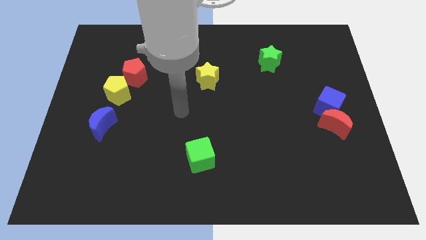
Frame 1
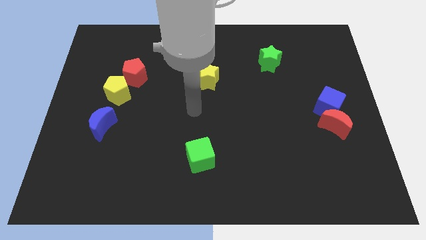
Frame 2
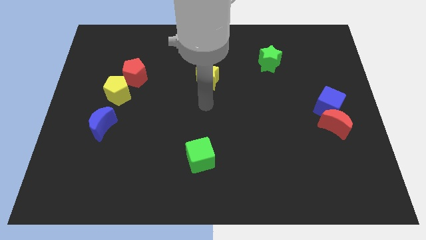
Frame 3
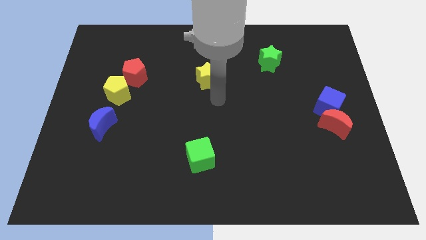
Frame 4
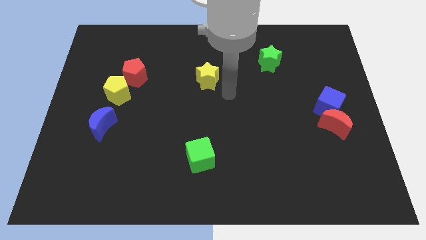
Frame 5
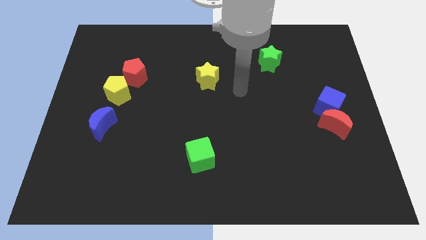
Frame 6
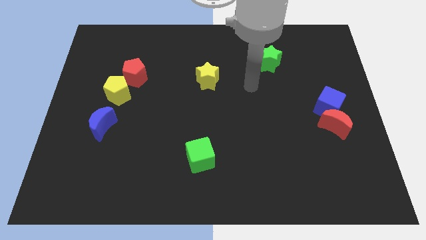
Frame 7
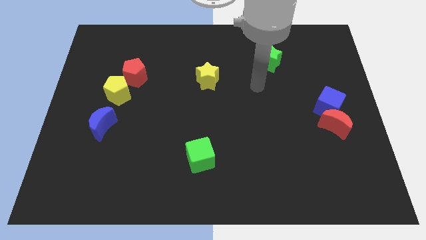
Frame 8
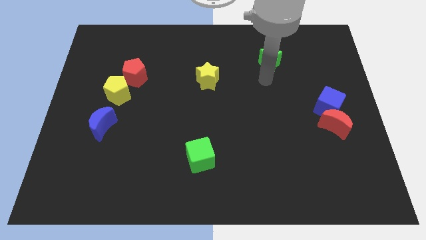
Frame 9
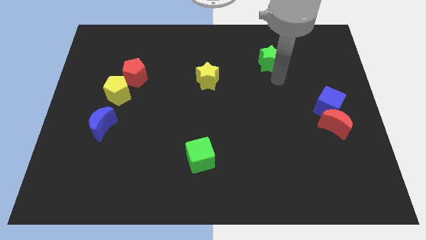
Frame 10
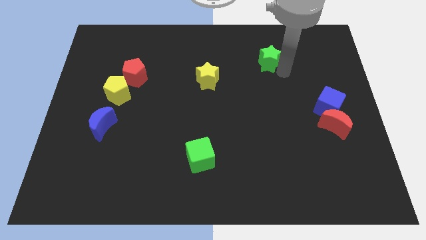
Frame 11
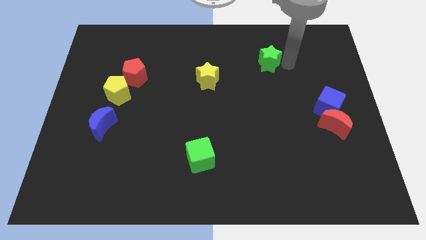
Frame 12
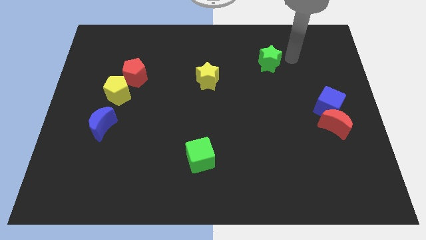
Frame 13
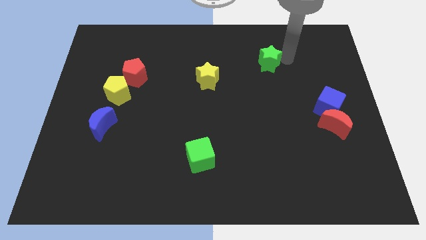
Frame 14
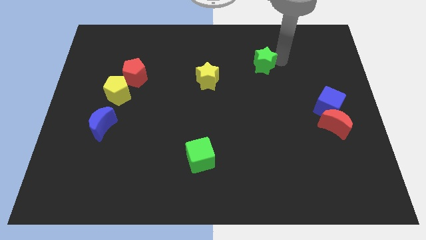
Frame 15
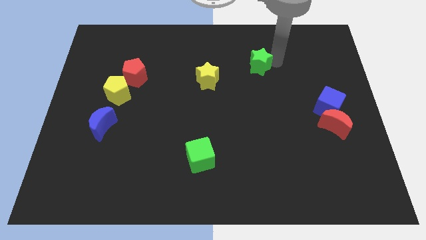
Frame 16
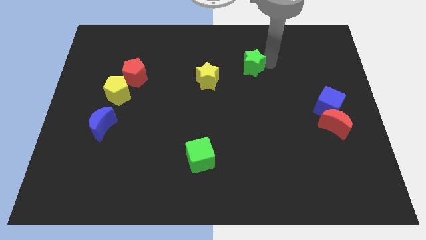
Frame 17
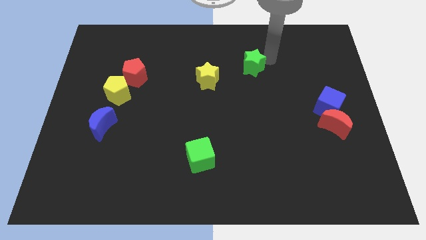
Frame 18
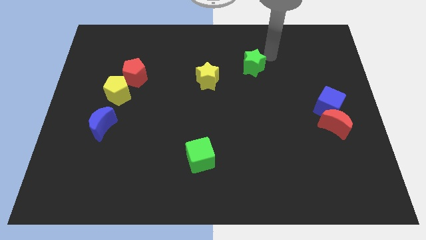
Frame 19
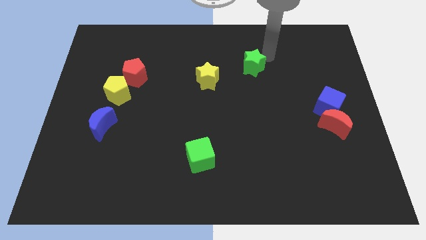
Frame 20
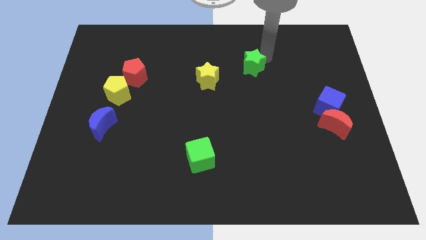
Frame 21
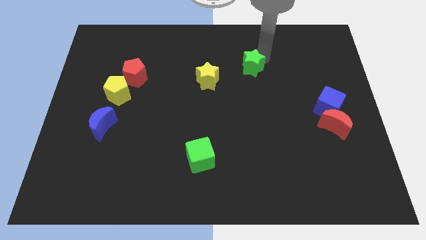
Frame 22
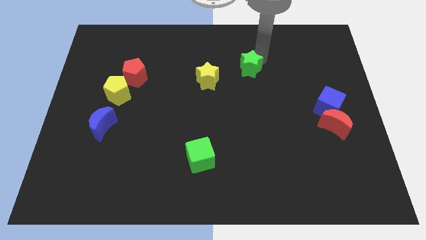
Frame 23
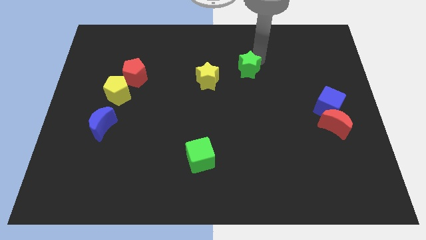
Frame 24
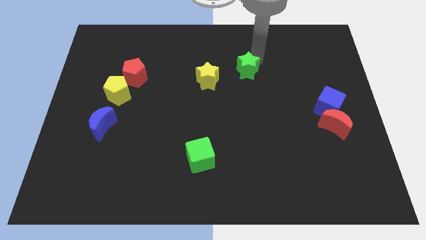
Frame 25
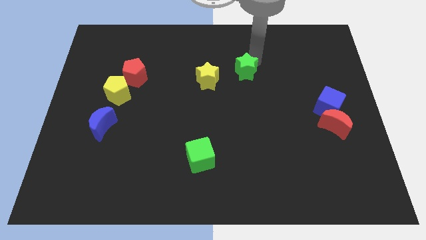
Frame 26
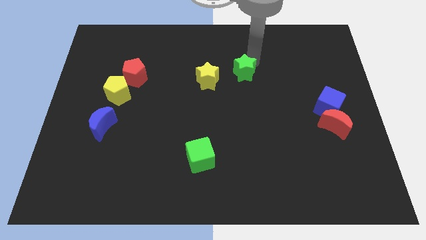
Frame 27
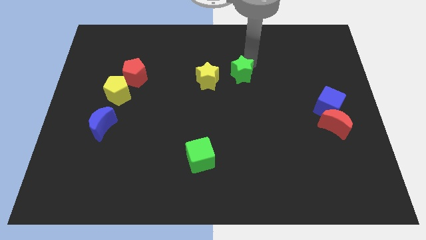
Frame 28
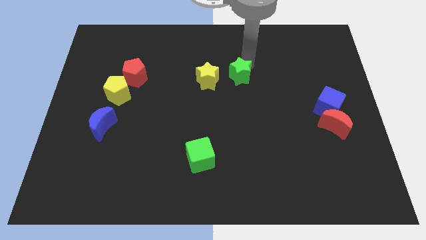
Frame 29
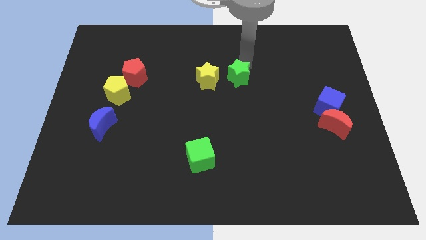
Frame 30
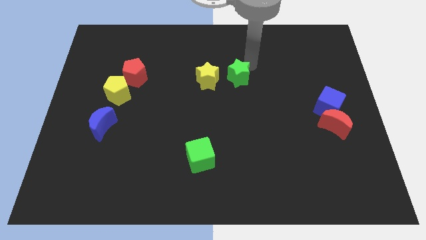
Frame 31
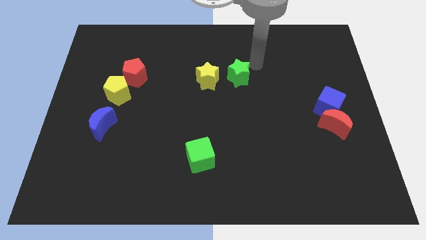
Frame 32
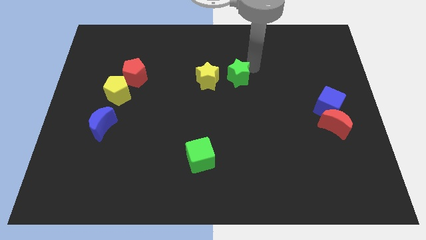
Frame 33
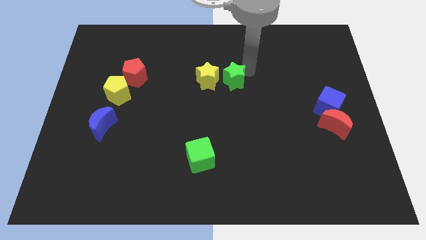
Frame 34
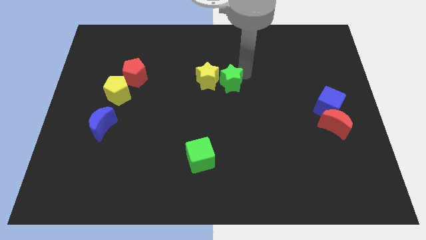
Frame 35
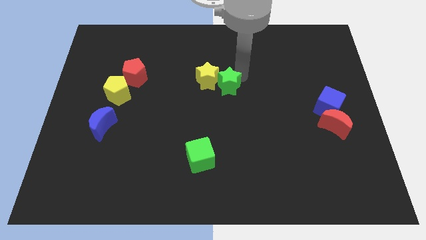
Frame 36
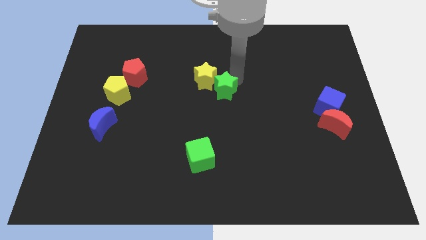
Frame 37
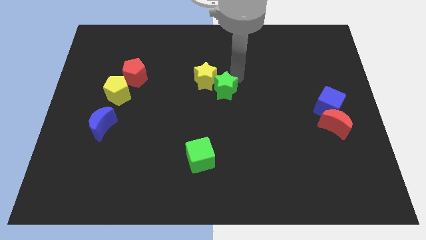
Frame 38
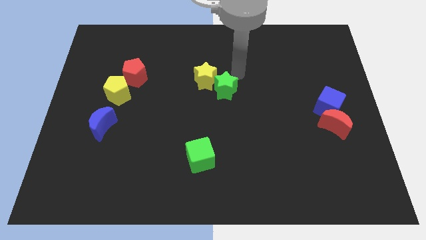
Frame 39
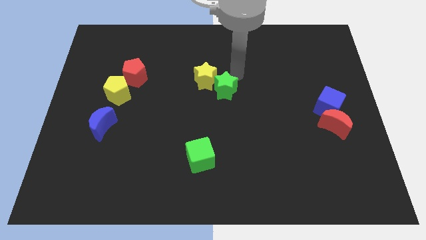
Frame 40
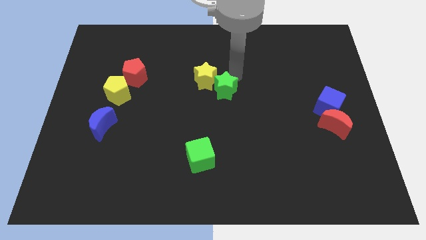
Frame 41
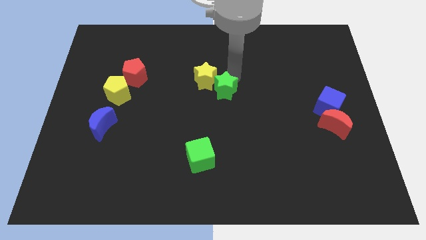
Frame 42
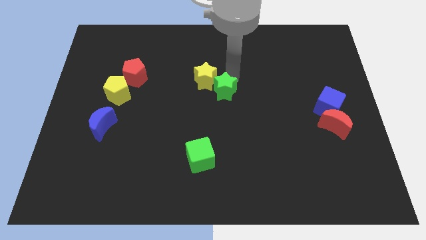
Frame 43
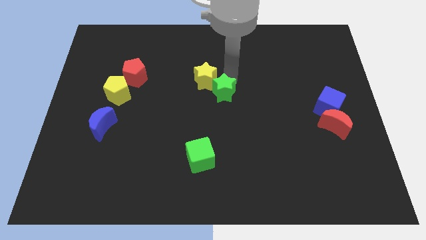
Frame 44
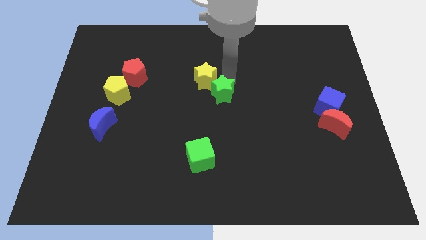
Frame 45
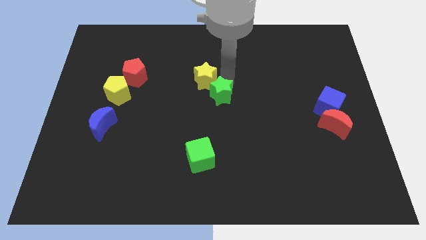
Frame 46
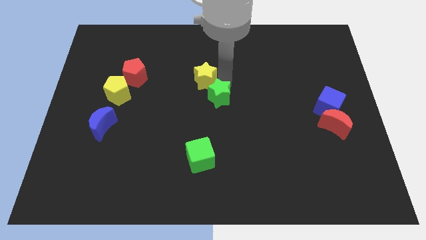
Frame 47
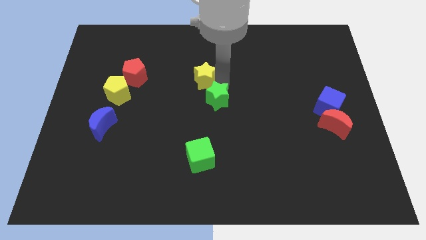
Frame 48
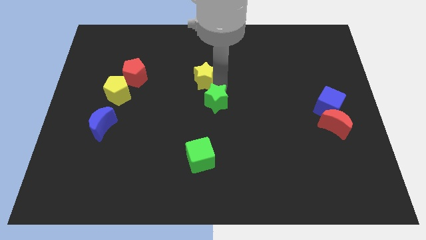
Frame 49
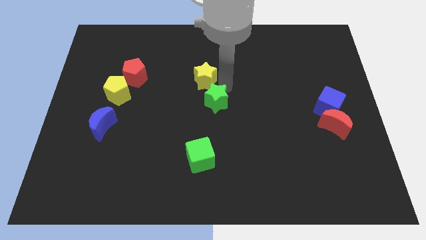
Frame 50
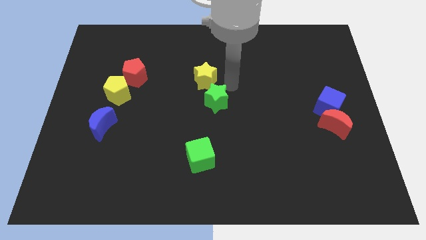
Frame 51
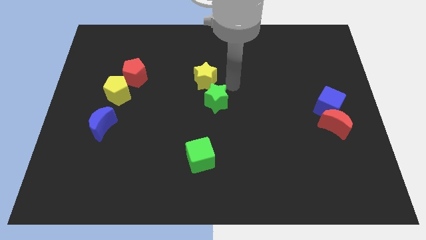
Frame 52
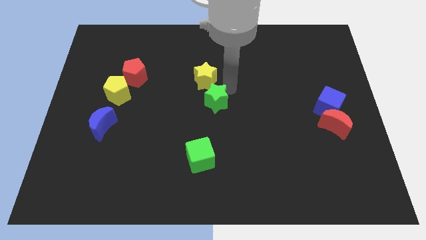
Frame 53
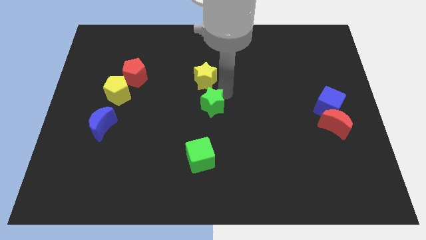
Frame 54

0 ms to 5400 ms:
slide the green star downwards and left

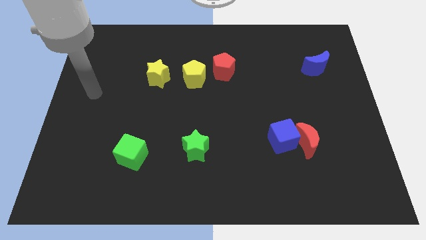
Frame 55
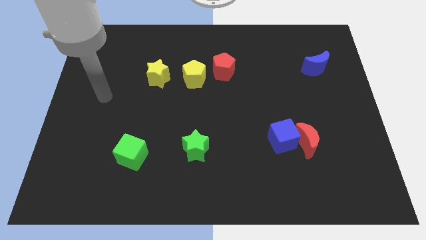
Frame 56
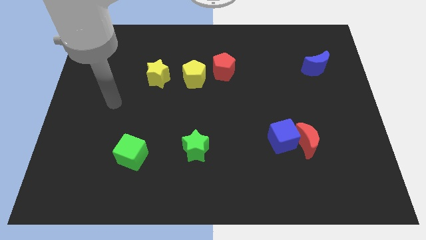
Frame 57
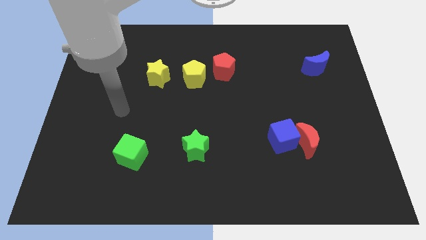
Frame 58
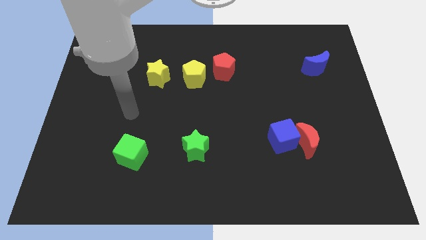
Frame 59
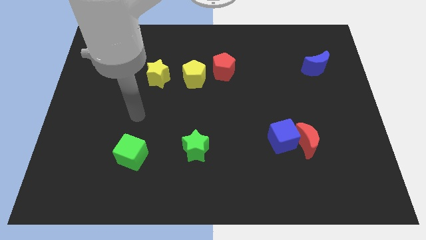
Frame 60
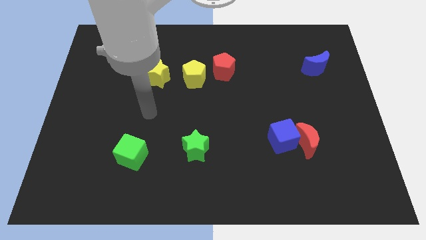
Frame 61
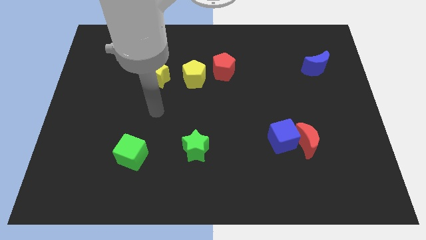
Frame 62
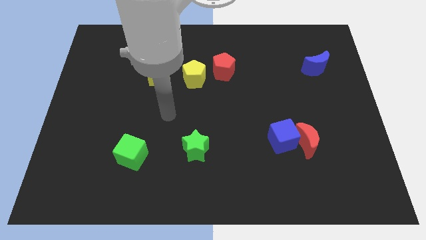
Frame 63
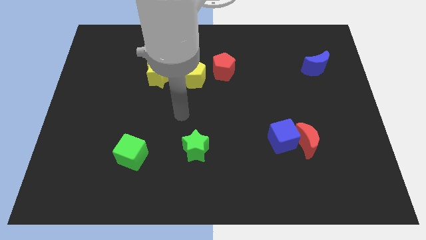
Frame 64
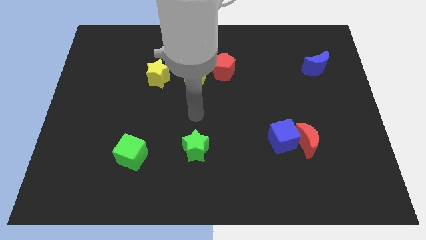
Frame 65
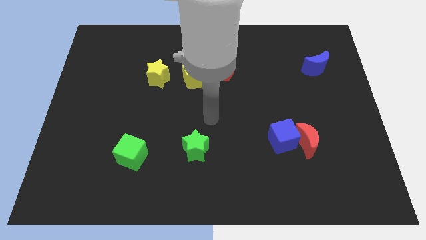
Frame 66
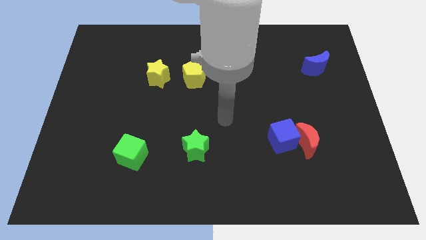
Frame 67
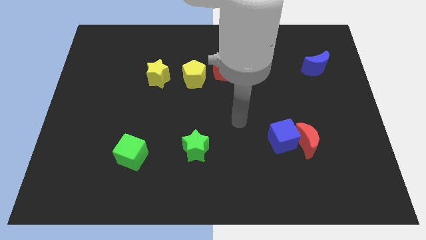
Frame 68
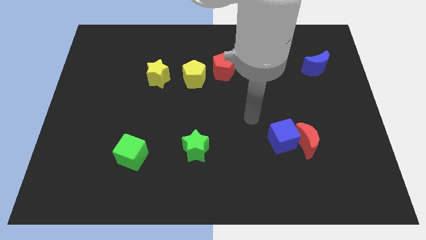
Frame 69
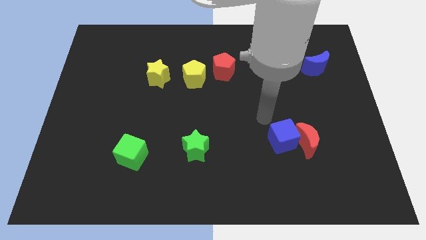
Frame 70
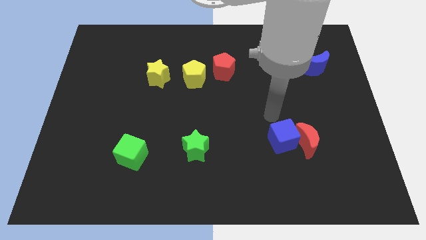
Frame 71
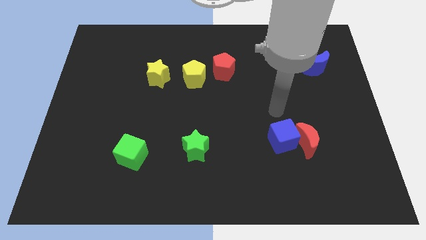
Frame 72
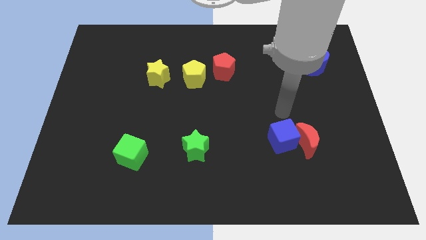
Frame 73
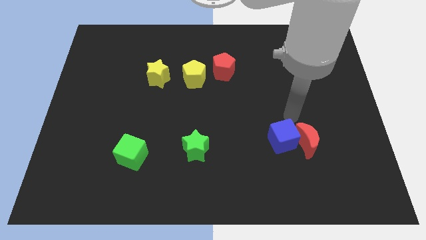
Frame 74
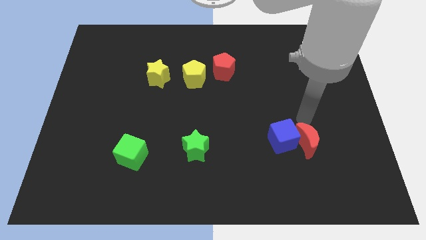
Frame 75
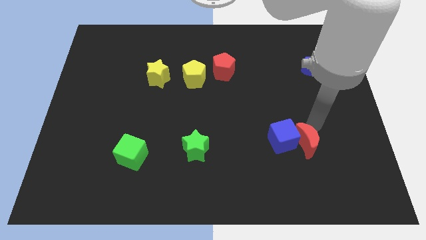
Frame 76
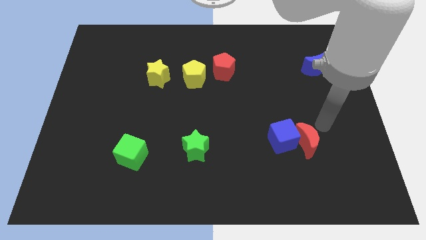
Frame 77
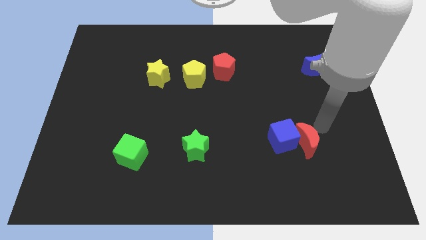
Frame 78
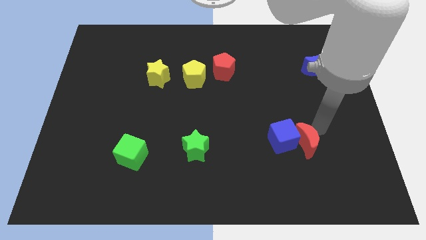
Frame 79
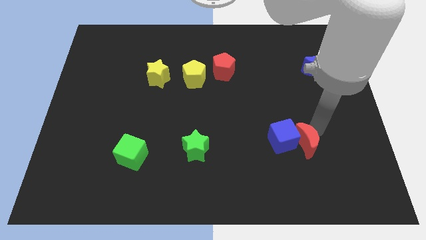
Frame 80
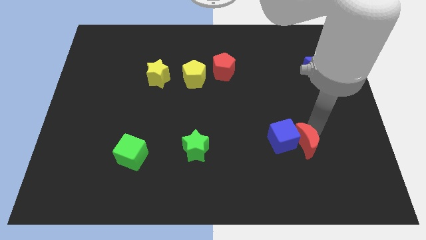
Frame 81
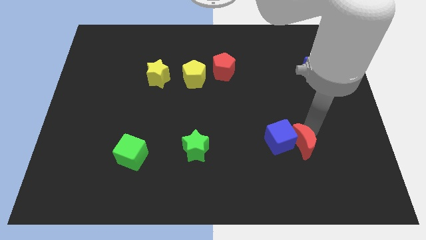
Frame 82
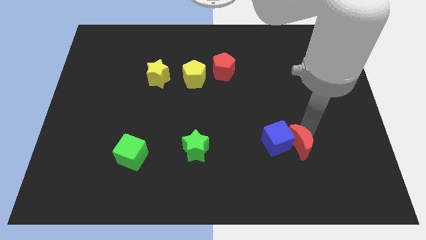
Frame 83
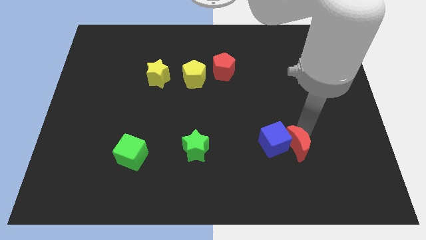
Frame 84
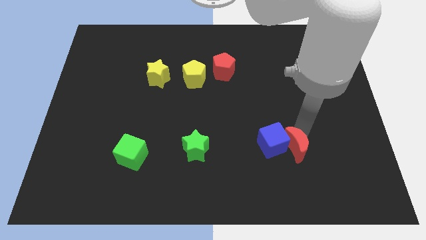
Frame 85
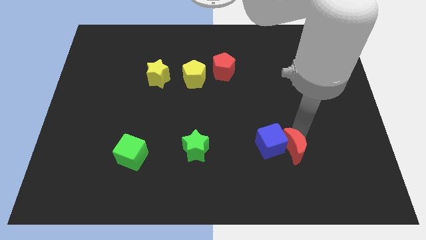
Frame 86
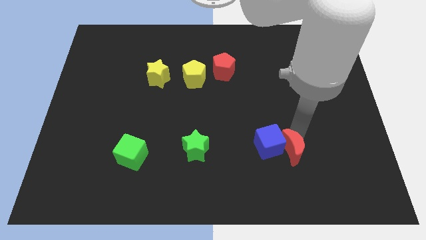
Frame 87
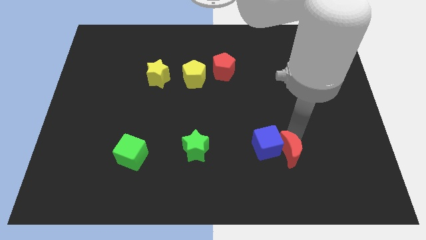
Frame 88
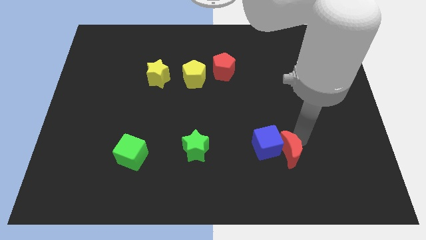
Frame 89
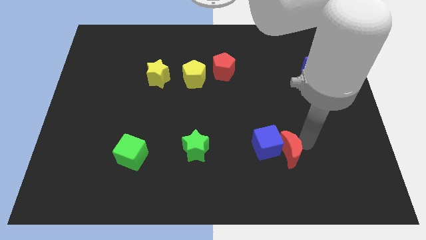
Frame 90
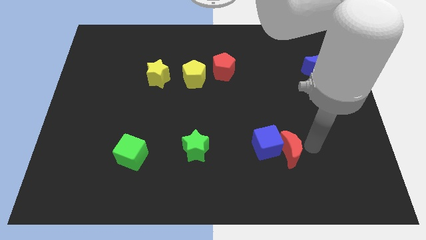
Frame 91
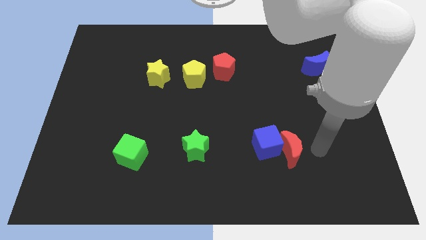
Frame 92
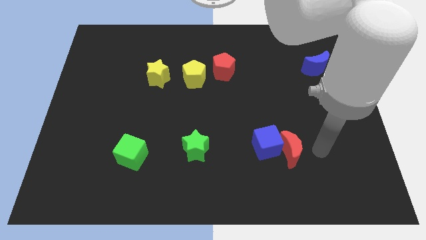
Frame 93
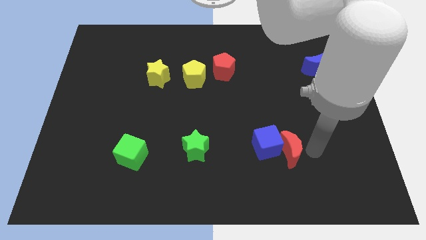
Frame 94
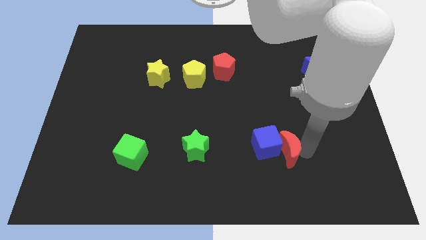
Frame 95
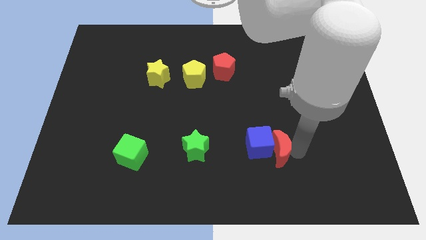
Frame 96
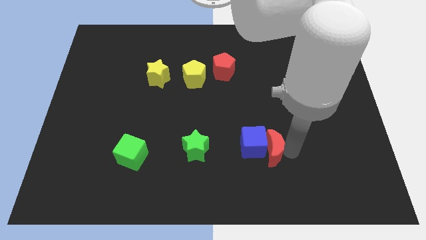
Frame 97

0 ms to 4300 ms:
slightly slide the red moon left
